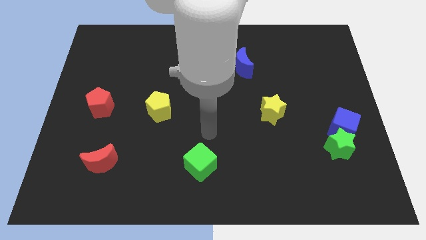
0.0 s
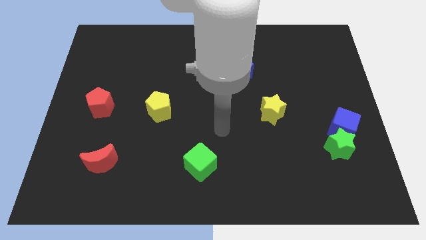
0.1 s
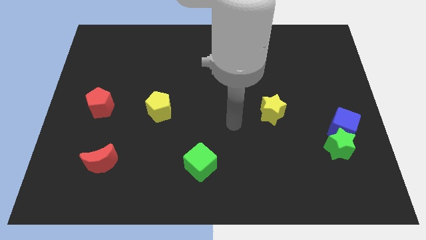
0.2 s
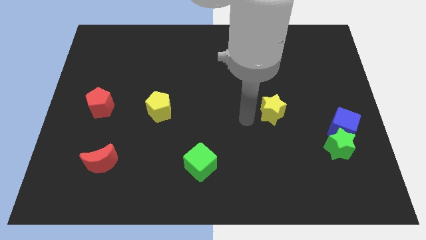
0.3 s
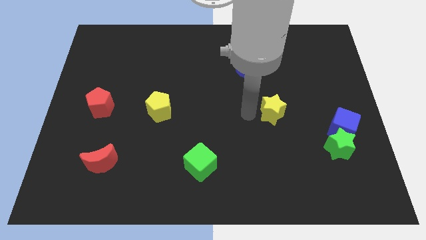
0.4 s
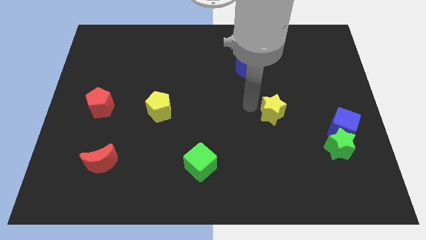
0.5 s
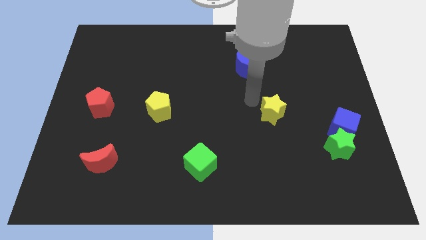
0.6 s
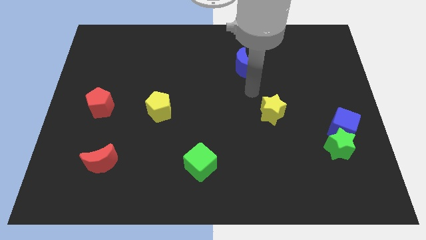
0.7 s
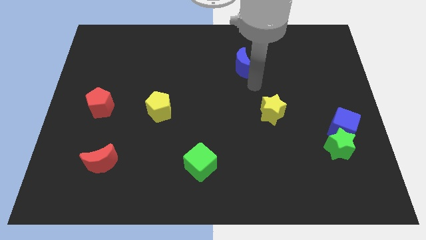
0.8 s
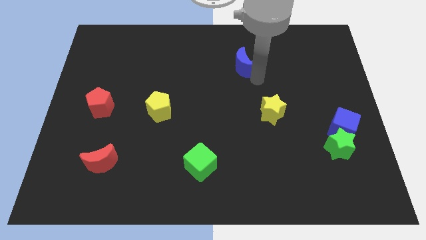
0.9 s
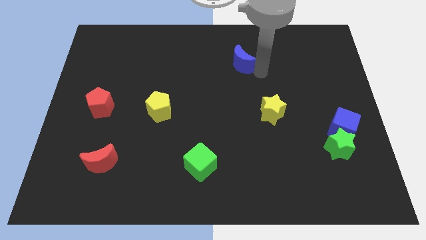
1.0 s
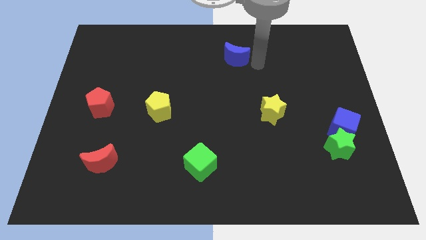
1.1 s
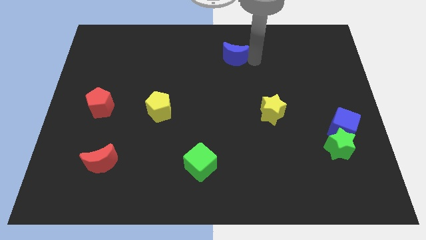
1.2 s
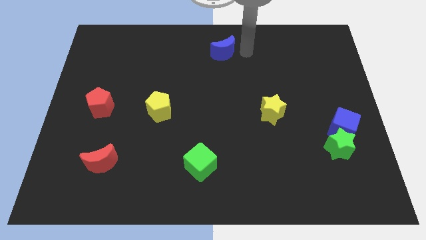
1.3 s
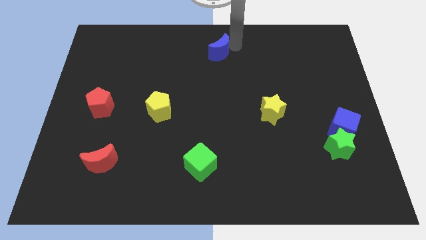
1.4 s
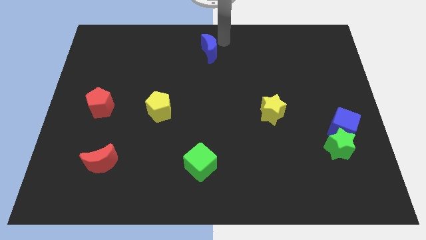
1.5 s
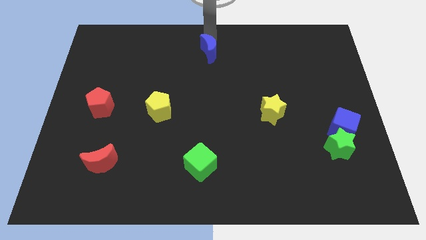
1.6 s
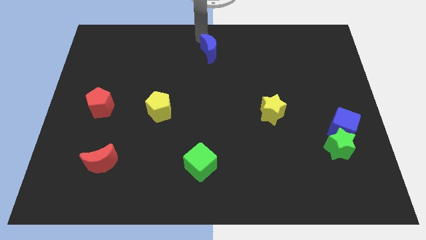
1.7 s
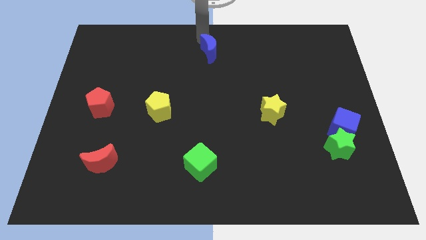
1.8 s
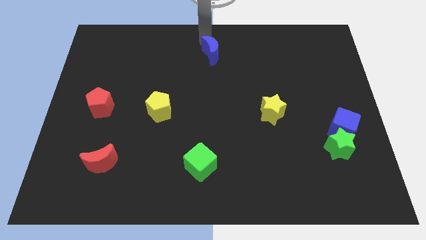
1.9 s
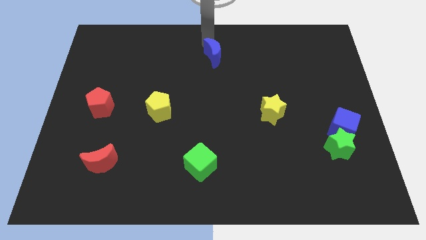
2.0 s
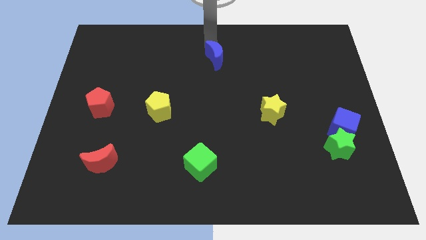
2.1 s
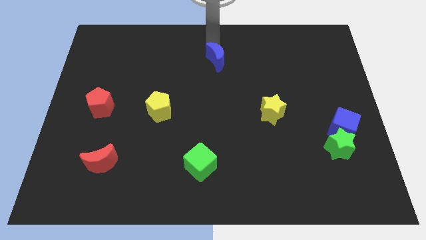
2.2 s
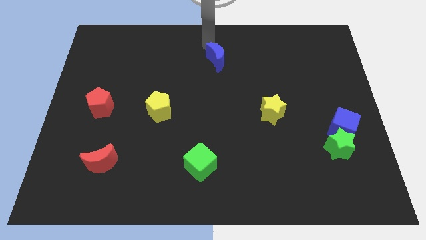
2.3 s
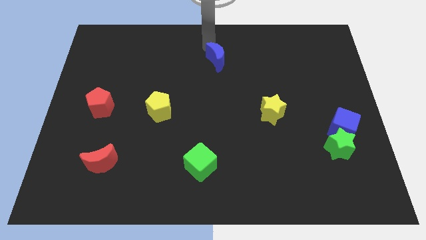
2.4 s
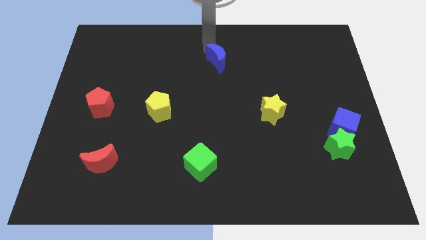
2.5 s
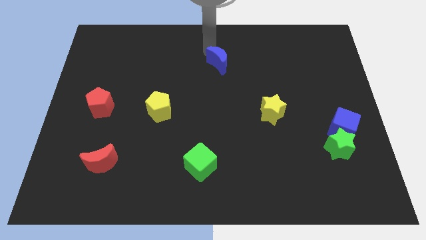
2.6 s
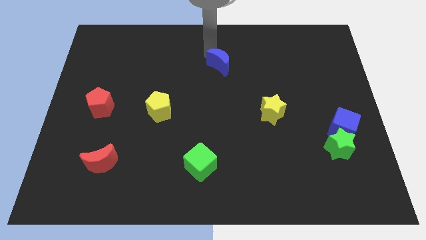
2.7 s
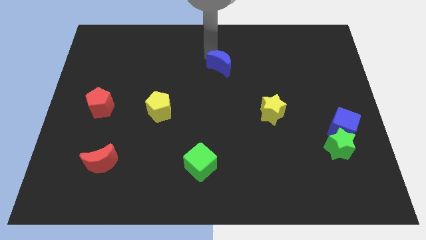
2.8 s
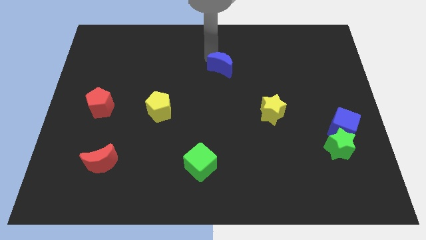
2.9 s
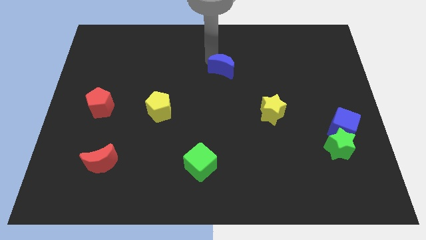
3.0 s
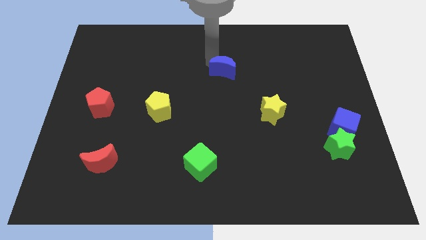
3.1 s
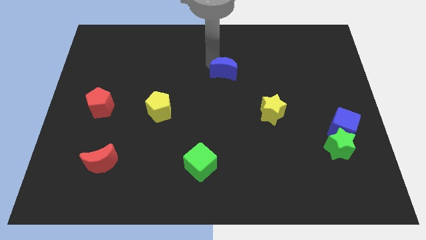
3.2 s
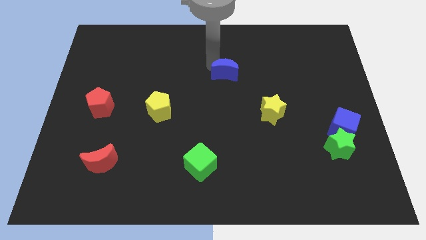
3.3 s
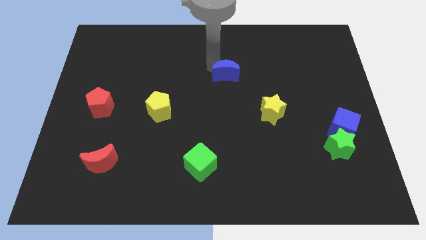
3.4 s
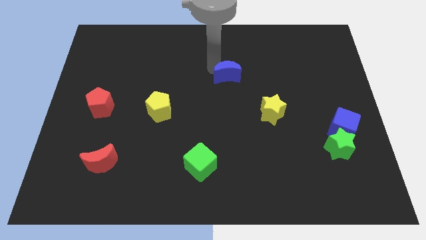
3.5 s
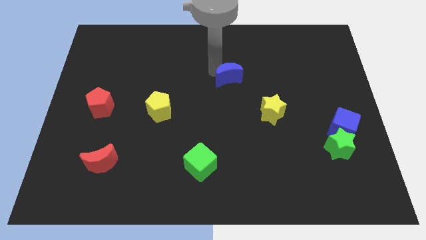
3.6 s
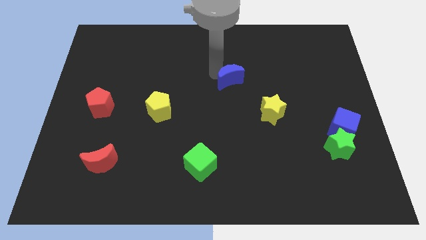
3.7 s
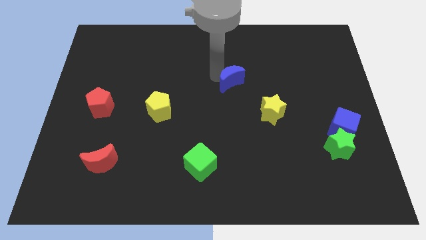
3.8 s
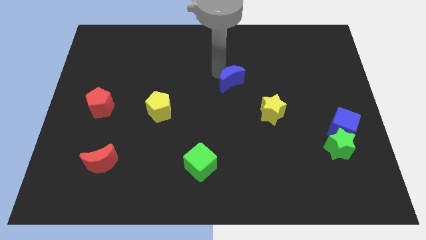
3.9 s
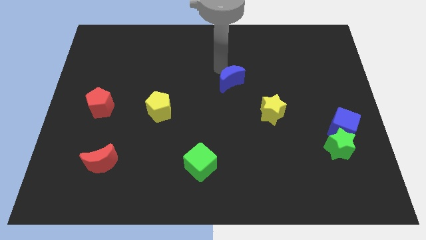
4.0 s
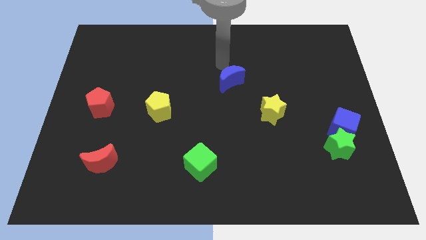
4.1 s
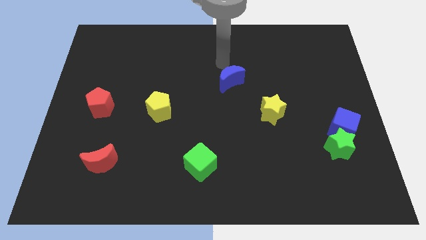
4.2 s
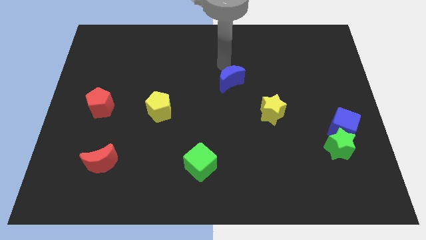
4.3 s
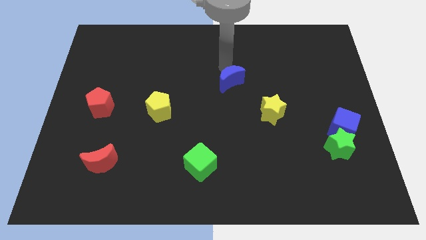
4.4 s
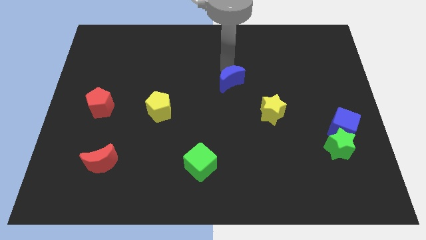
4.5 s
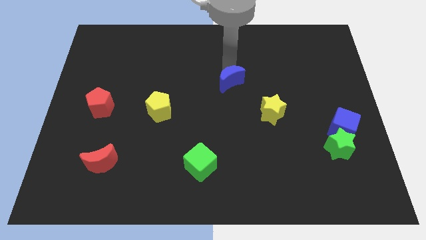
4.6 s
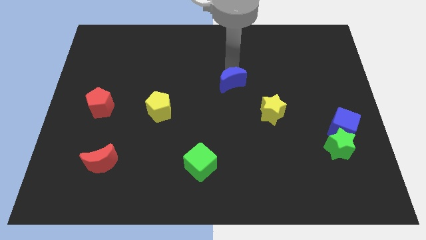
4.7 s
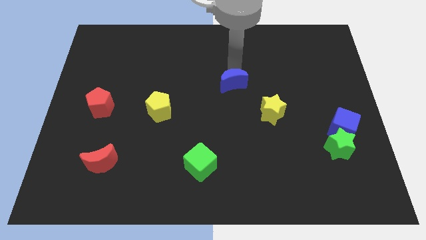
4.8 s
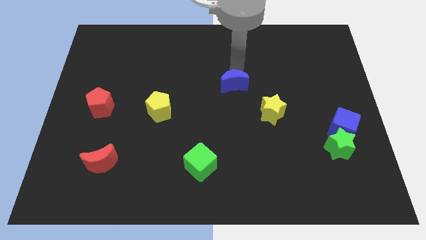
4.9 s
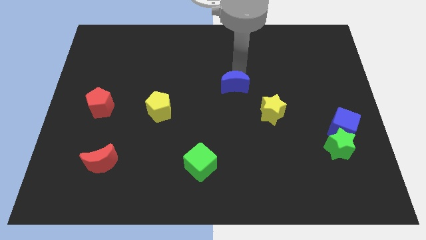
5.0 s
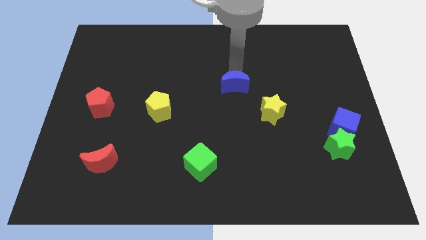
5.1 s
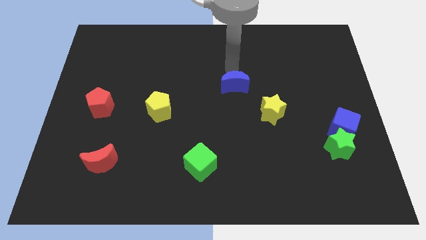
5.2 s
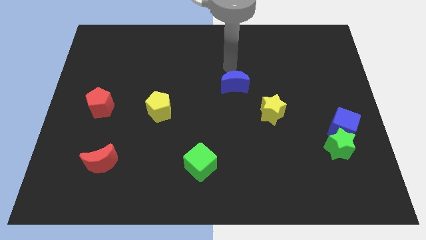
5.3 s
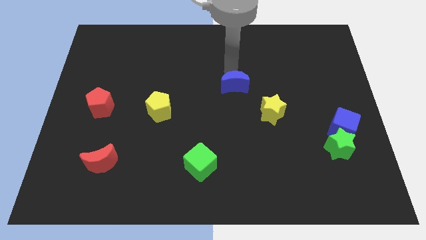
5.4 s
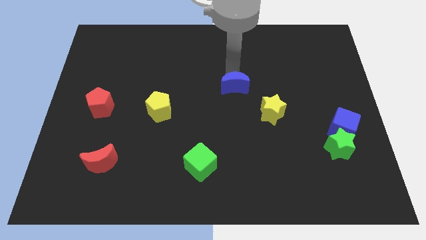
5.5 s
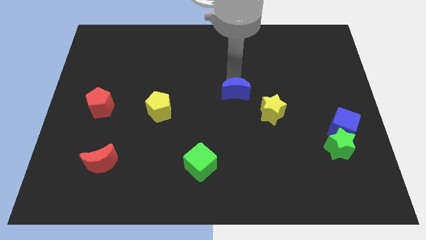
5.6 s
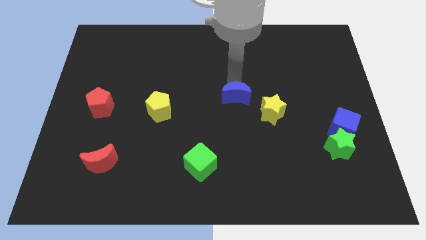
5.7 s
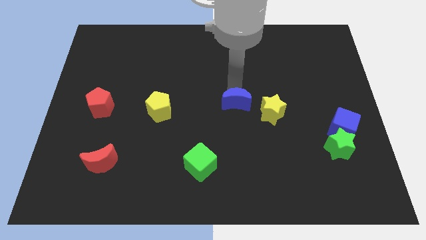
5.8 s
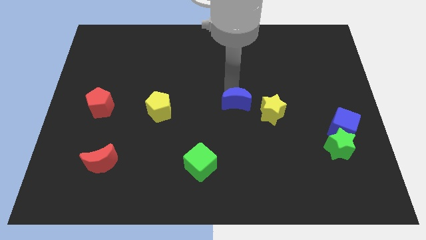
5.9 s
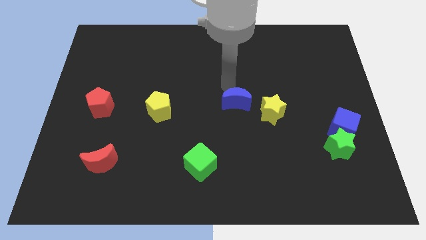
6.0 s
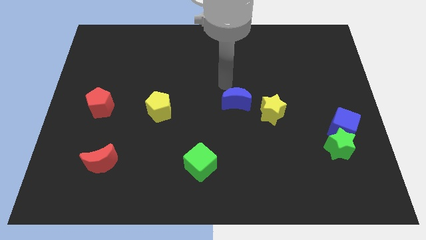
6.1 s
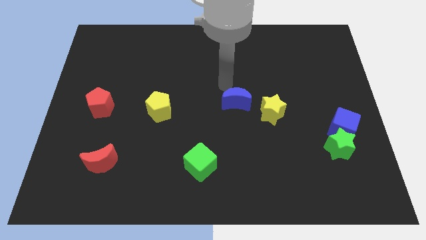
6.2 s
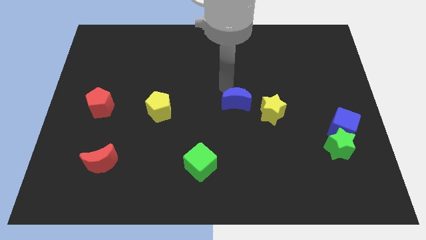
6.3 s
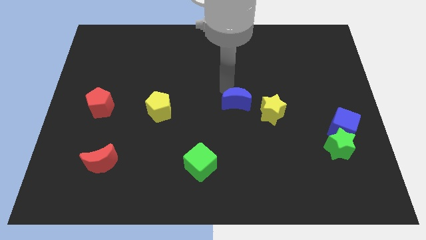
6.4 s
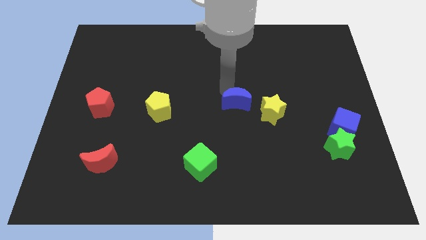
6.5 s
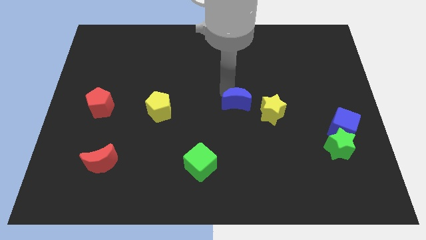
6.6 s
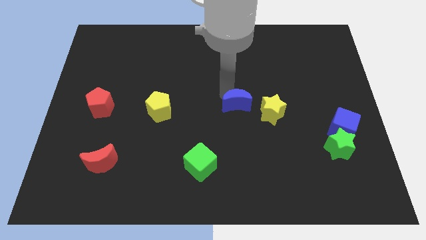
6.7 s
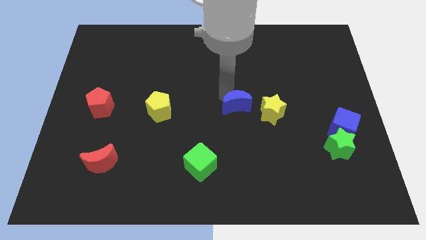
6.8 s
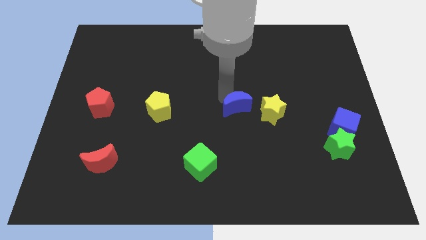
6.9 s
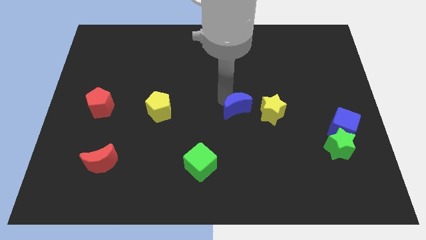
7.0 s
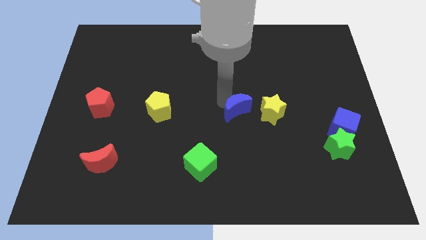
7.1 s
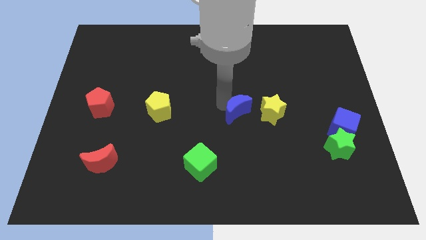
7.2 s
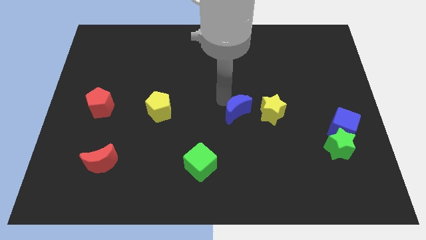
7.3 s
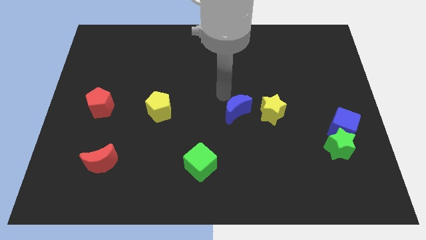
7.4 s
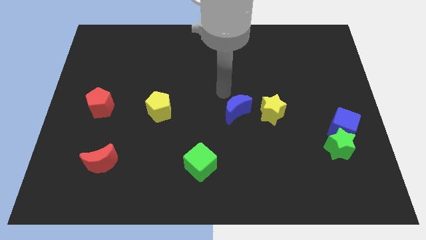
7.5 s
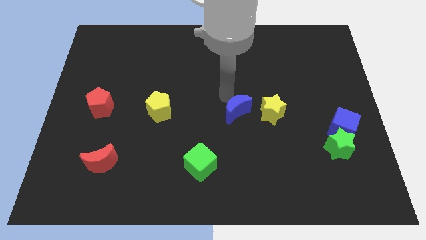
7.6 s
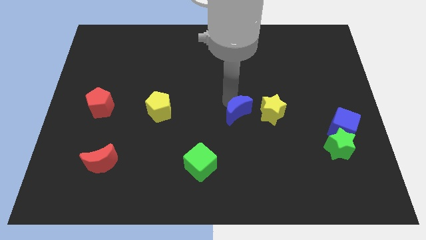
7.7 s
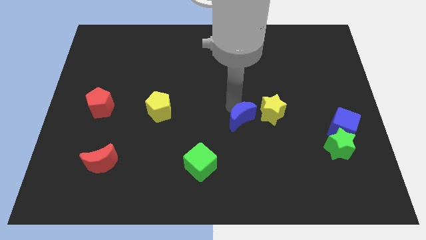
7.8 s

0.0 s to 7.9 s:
put the blue moon diagonally down and to the left of the yellow star

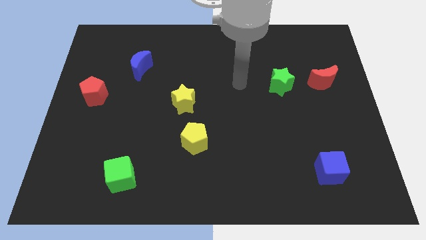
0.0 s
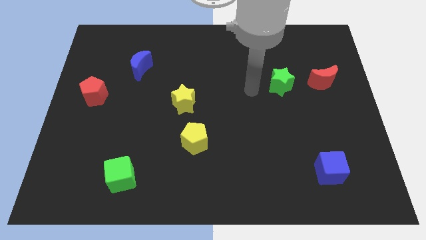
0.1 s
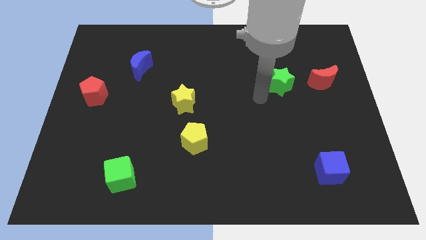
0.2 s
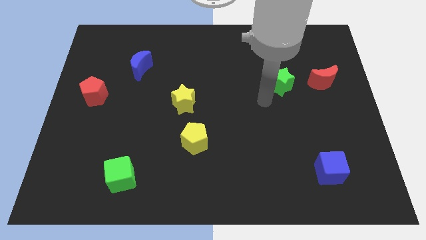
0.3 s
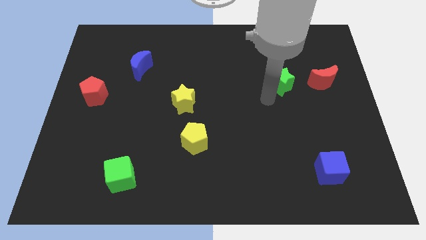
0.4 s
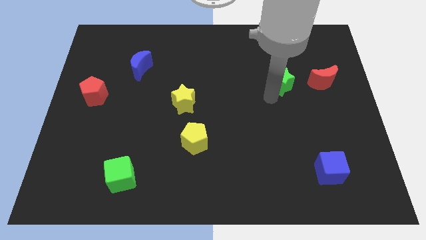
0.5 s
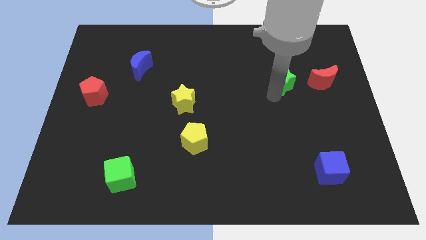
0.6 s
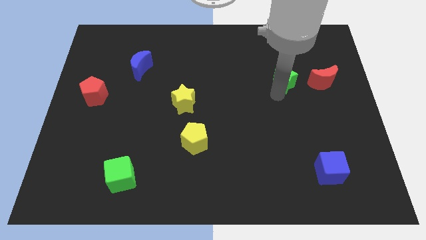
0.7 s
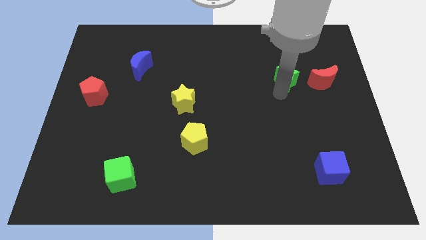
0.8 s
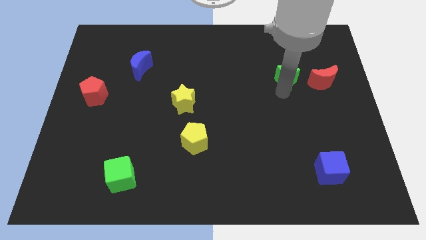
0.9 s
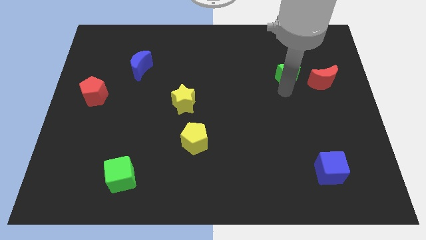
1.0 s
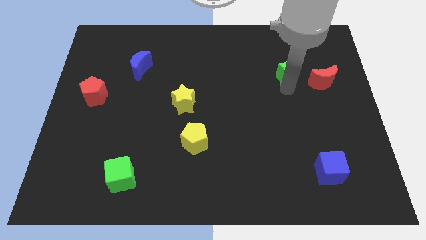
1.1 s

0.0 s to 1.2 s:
slide the green star to the top left side of the red moon
